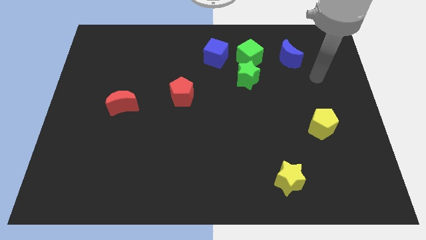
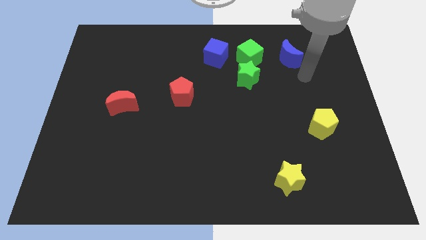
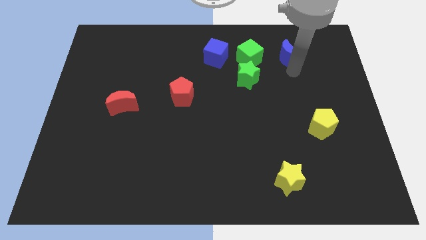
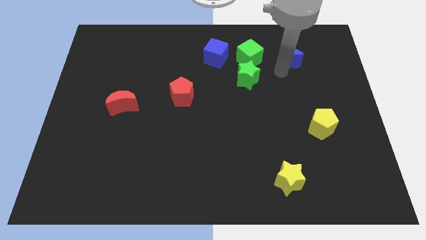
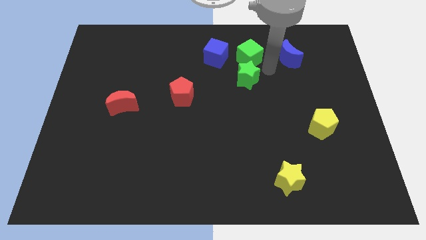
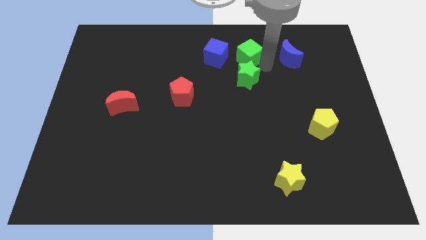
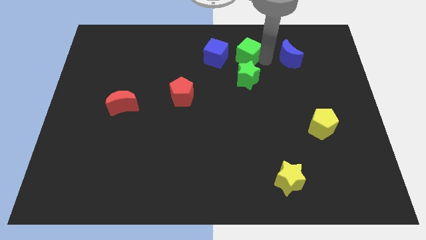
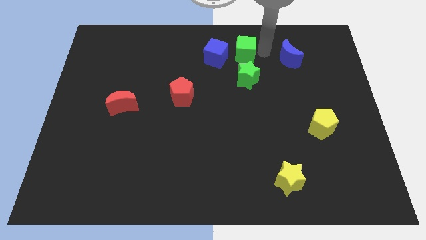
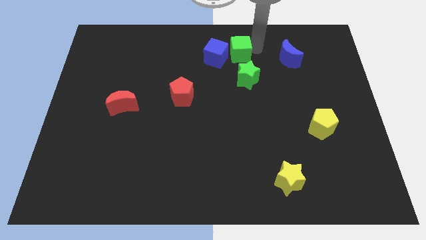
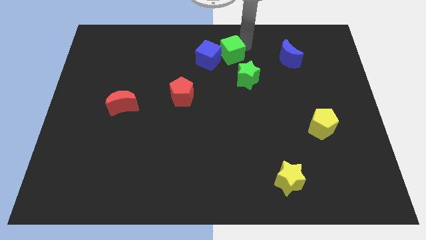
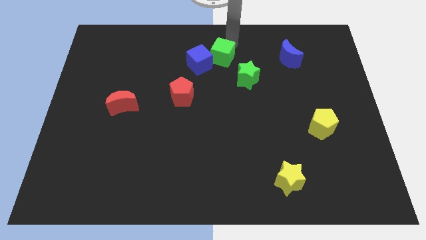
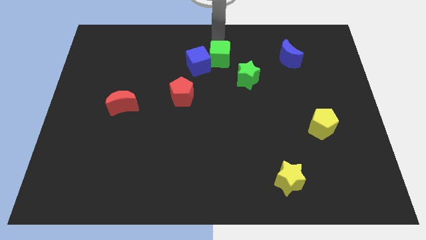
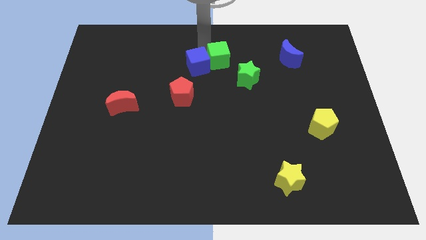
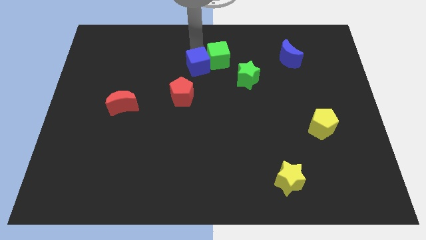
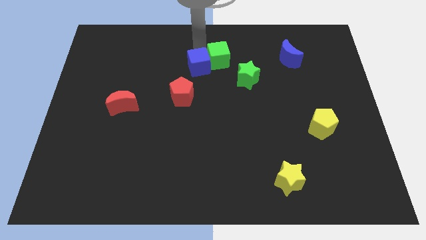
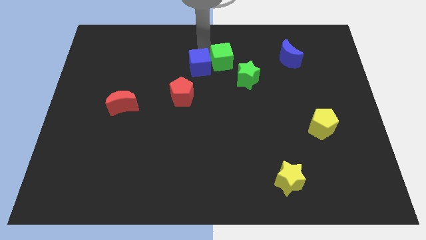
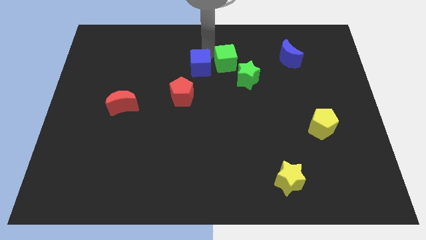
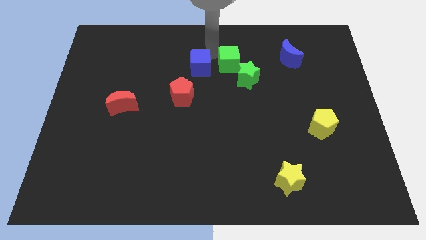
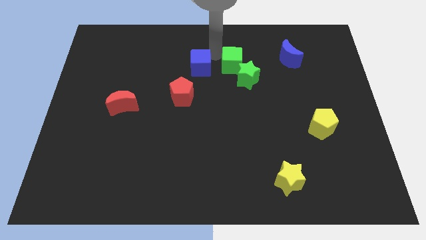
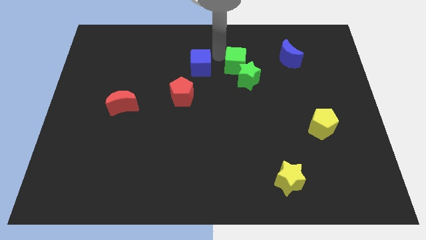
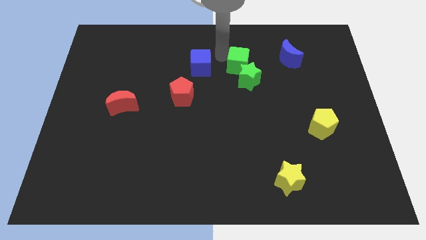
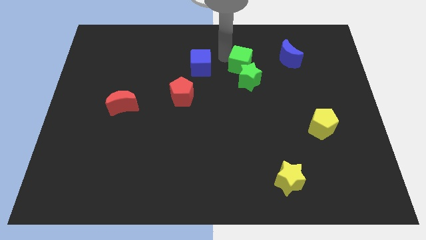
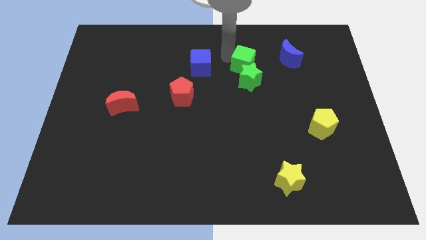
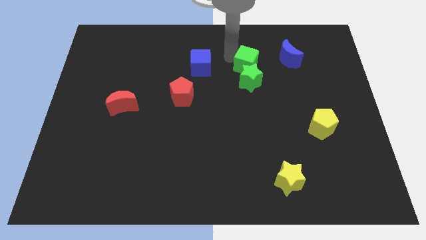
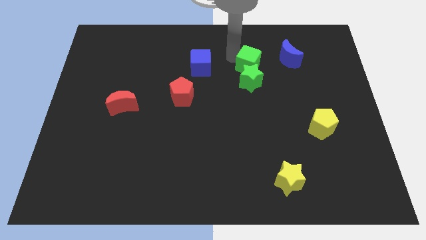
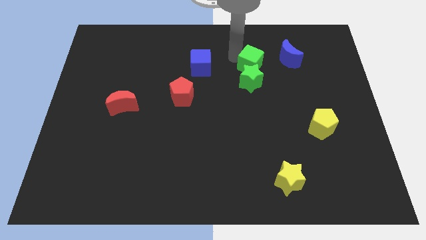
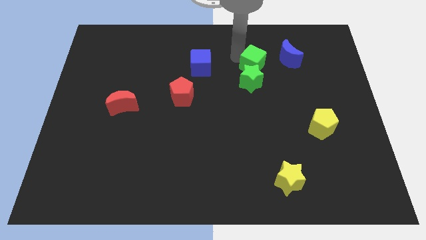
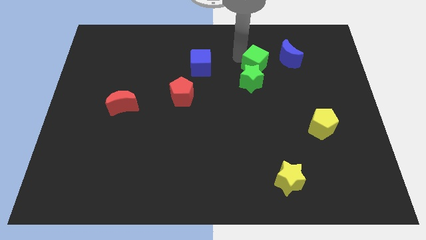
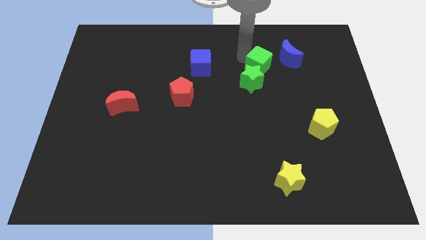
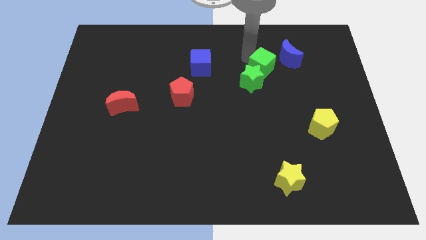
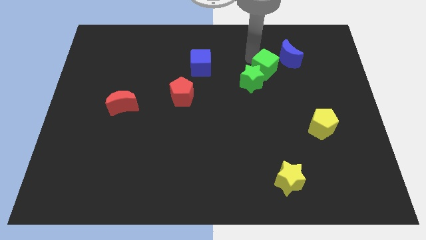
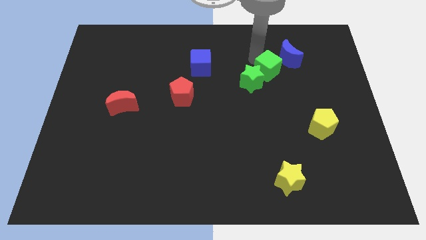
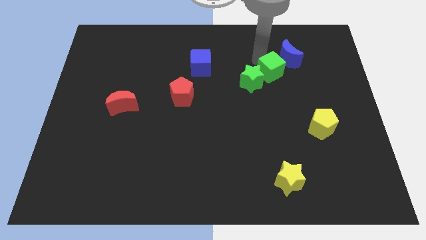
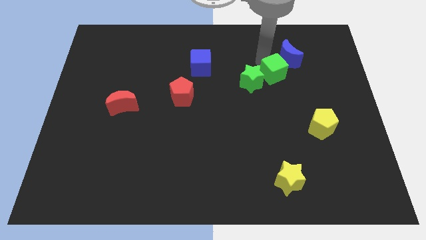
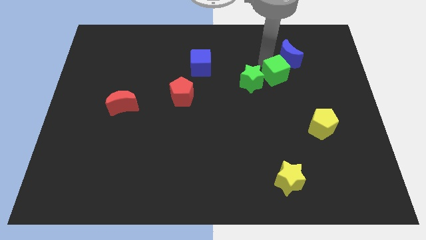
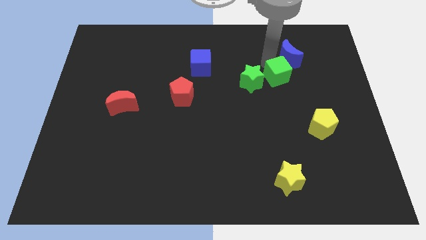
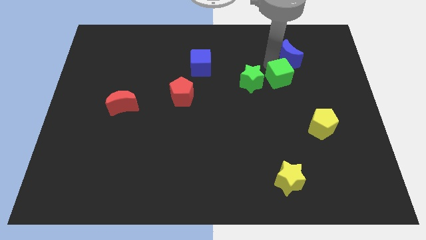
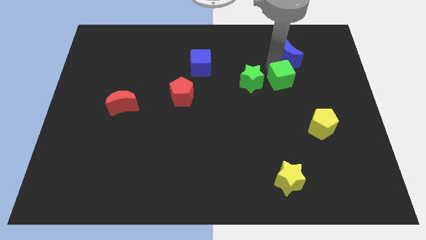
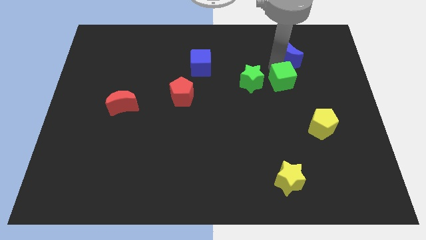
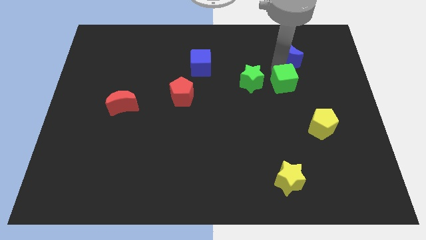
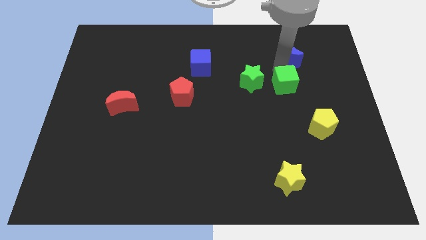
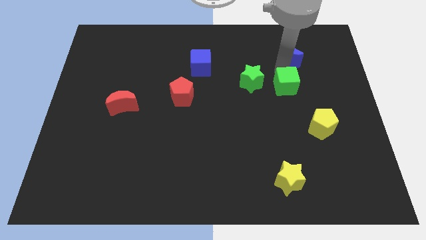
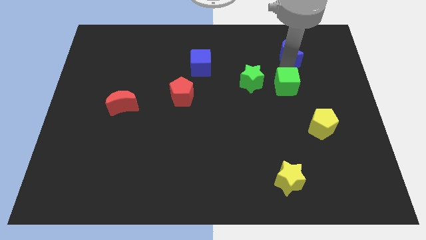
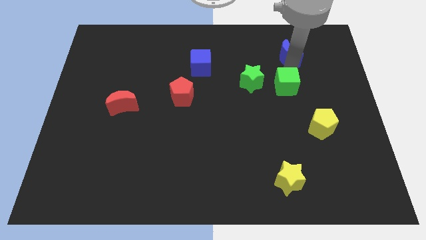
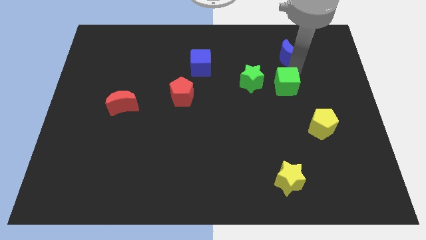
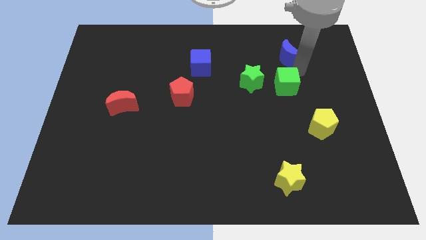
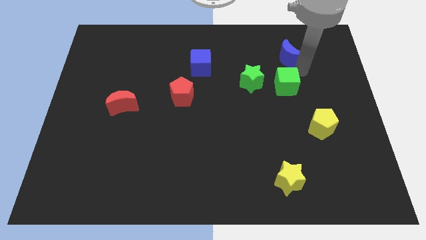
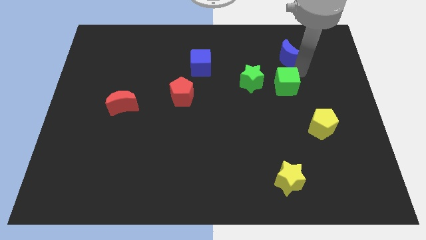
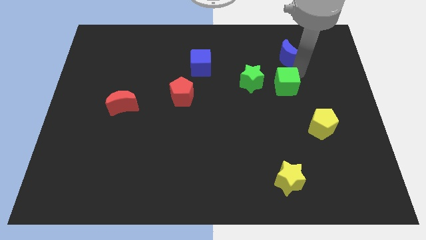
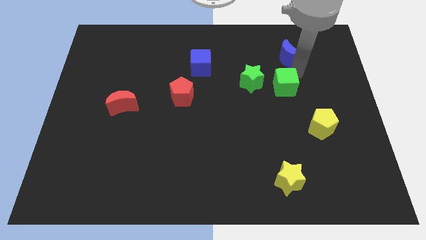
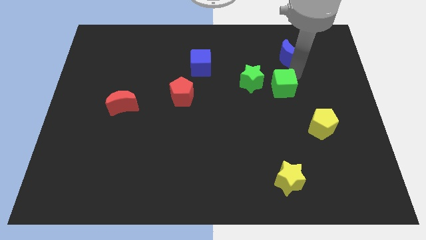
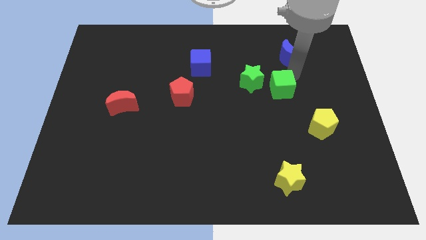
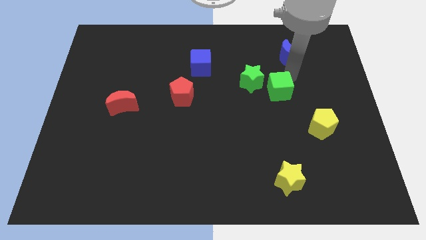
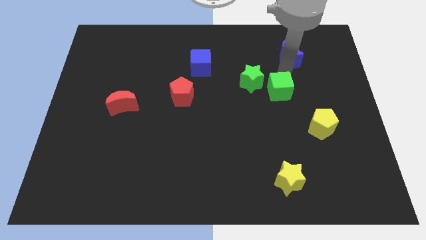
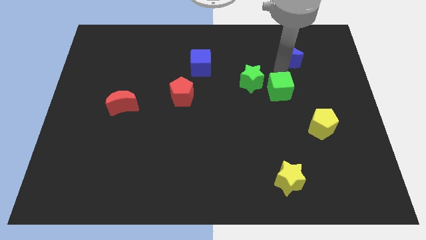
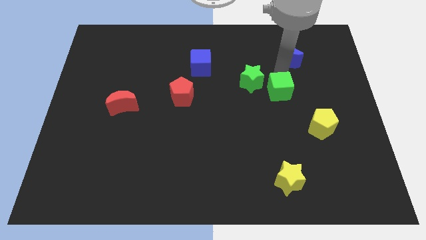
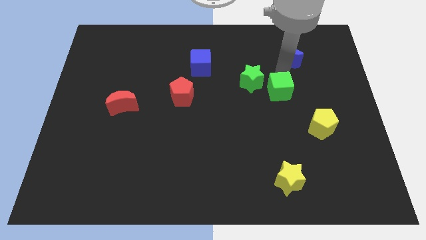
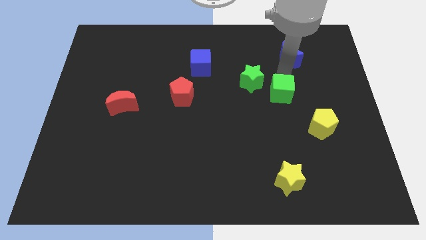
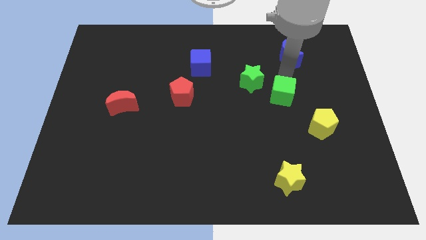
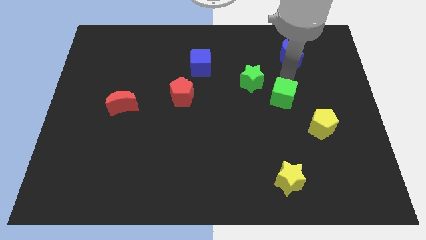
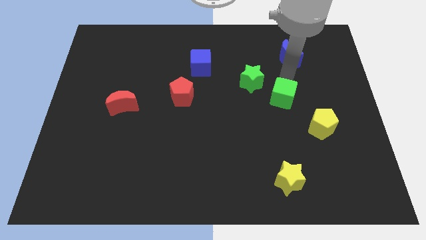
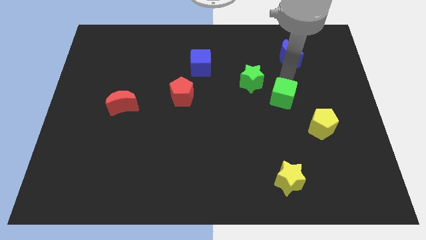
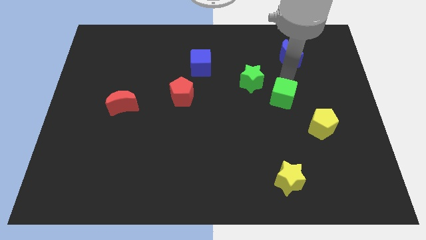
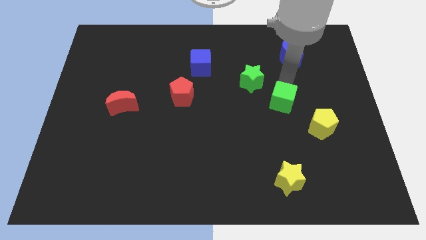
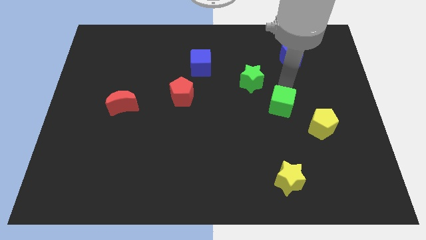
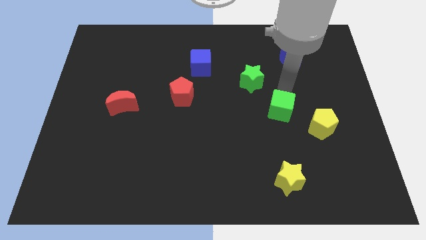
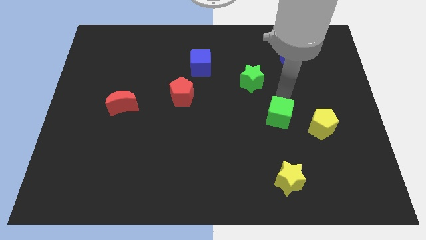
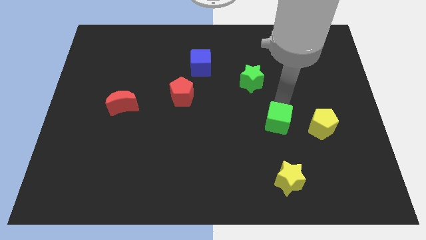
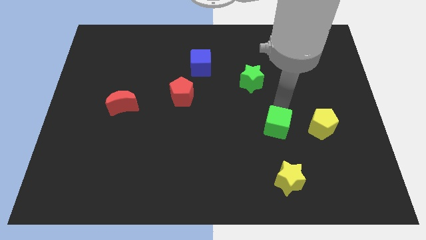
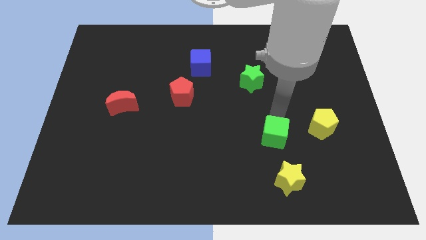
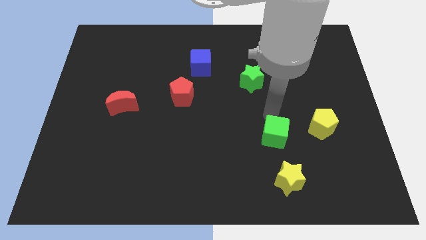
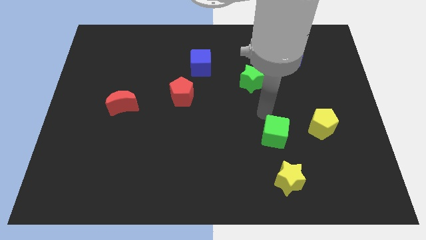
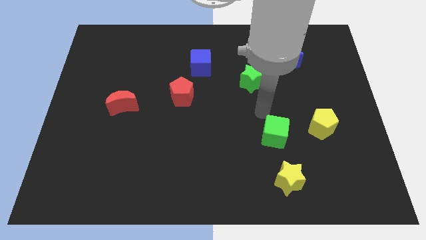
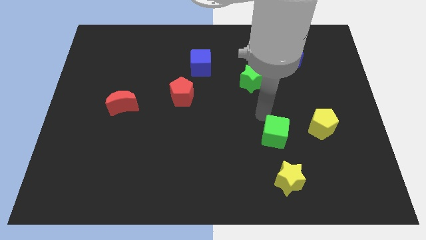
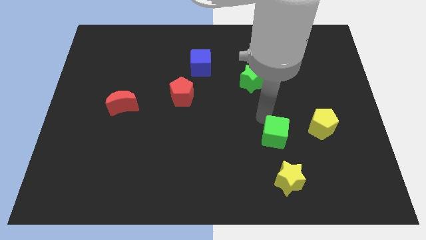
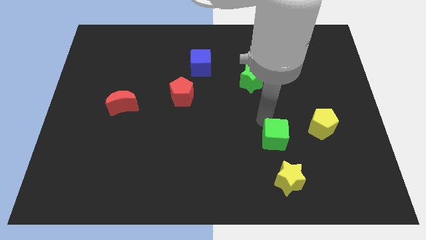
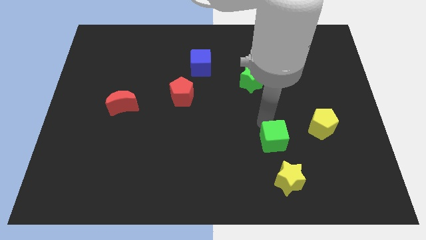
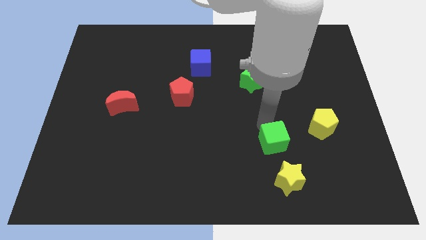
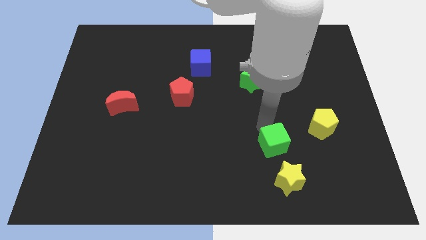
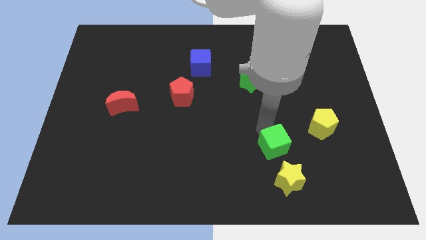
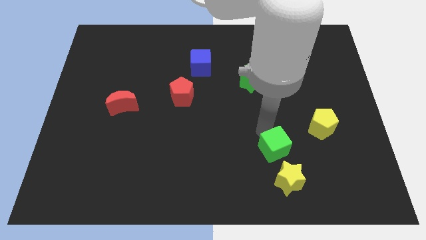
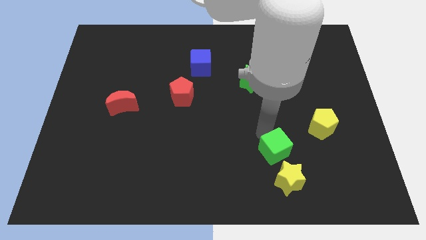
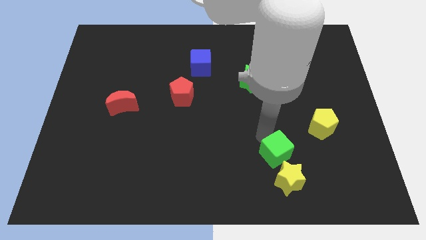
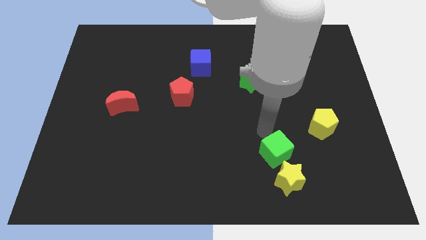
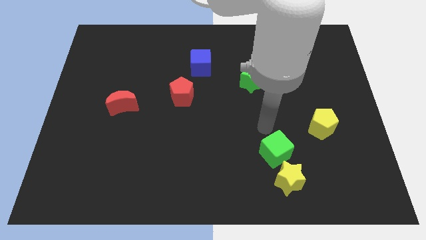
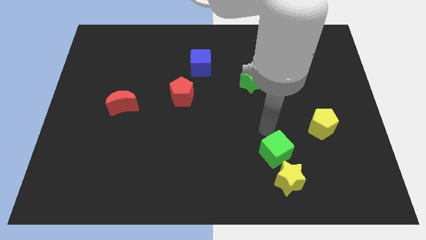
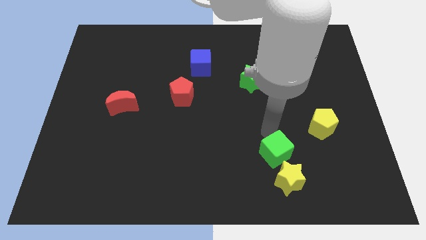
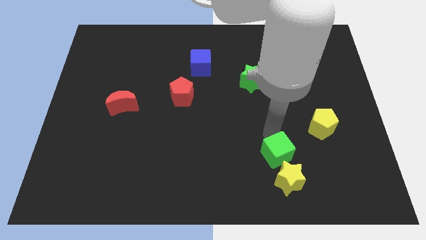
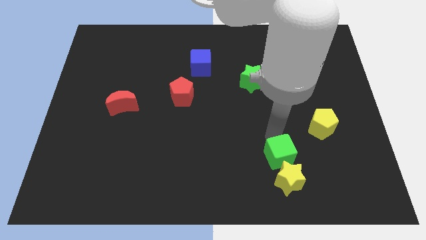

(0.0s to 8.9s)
slide the green cube to the yellow star
